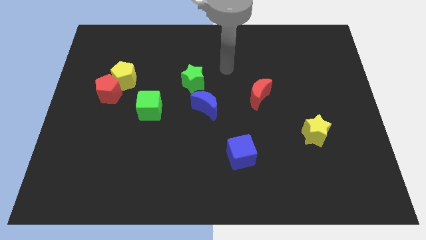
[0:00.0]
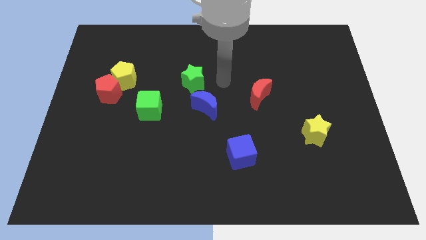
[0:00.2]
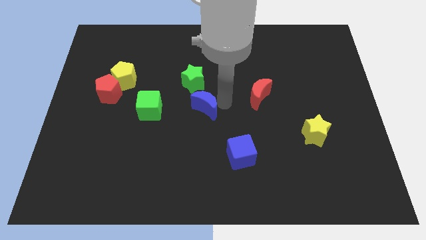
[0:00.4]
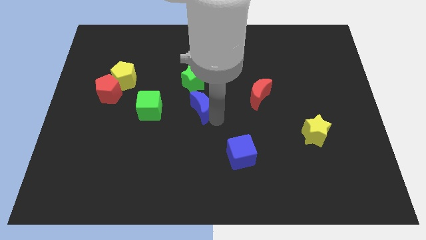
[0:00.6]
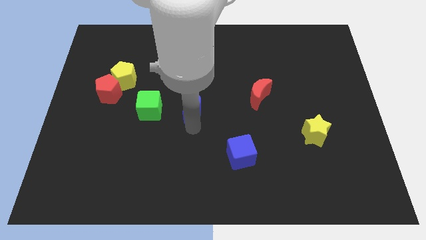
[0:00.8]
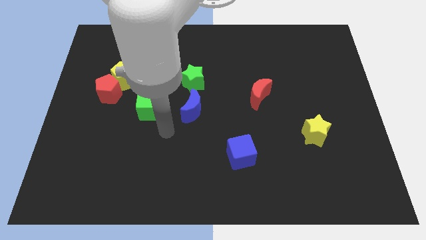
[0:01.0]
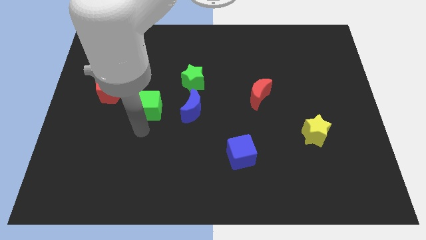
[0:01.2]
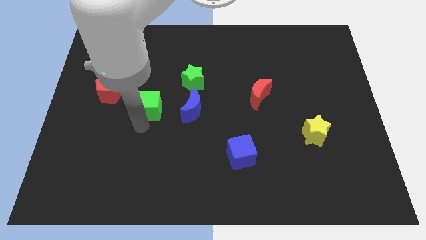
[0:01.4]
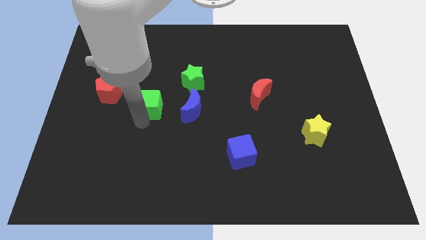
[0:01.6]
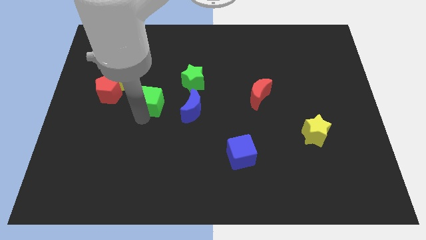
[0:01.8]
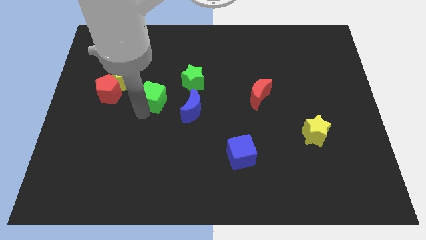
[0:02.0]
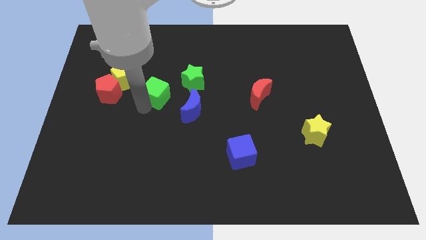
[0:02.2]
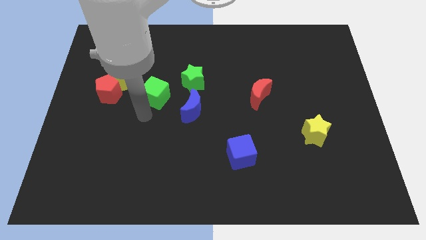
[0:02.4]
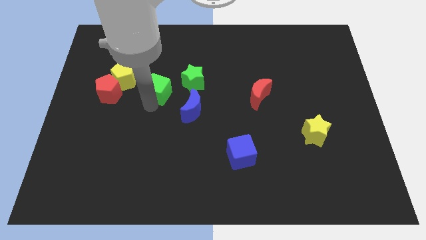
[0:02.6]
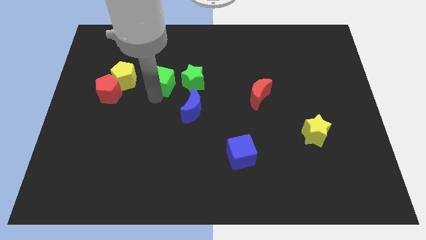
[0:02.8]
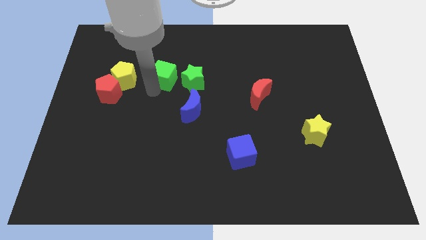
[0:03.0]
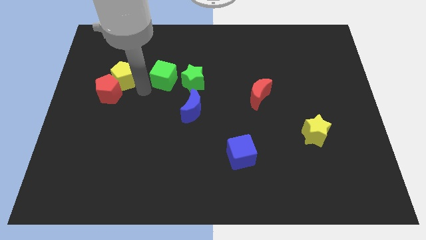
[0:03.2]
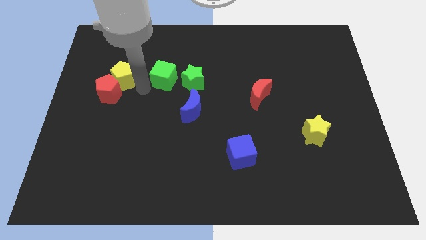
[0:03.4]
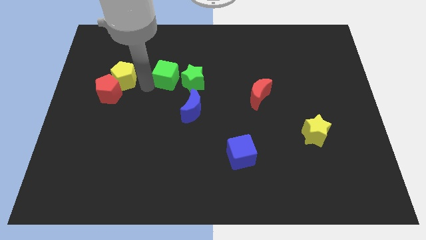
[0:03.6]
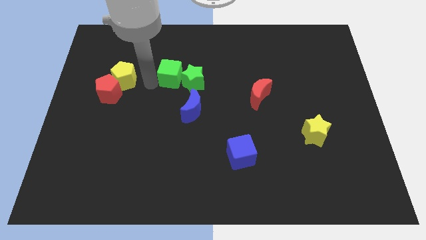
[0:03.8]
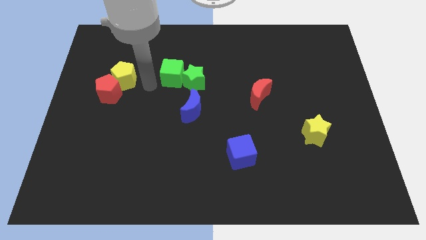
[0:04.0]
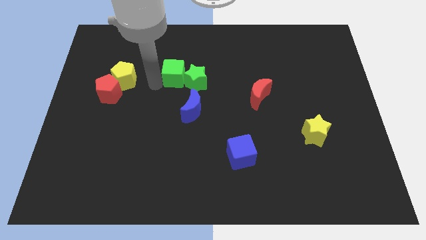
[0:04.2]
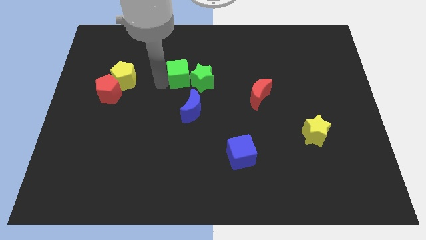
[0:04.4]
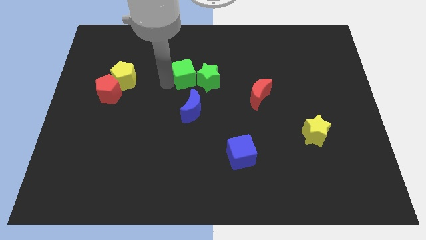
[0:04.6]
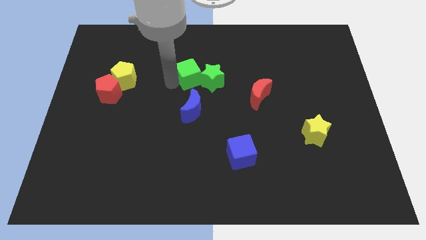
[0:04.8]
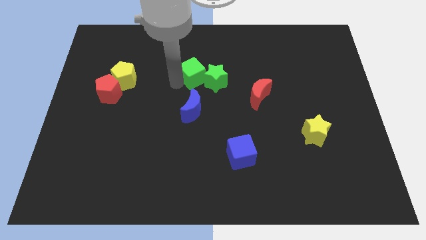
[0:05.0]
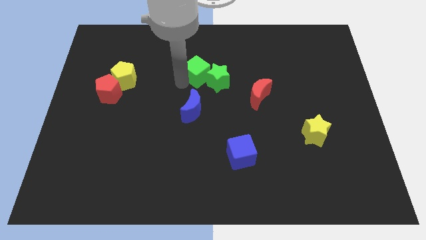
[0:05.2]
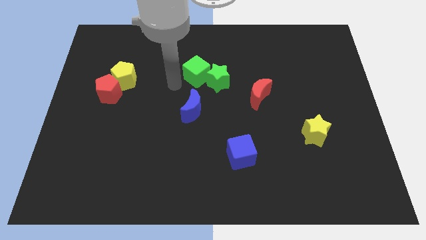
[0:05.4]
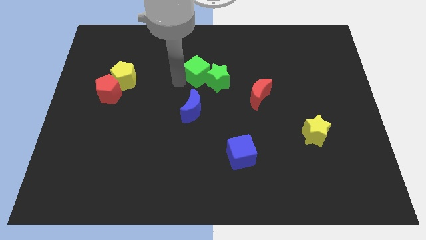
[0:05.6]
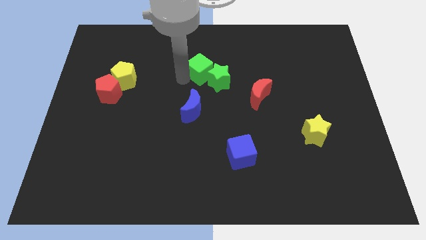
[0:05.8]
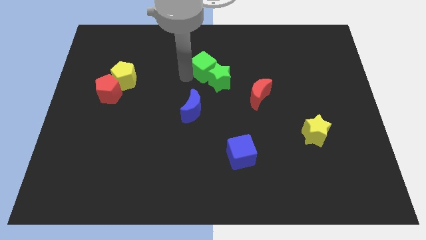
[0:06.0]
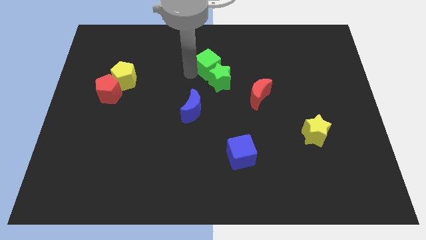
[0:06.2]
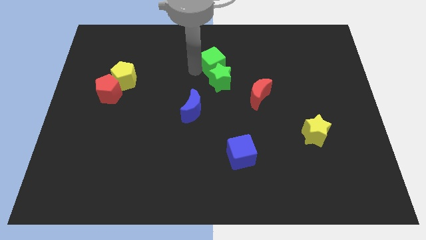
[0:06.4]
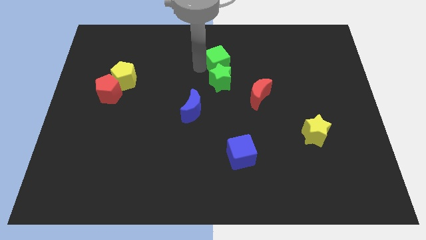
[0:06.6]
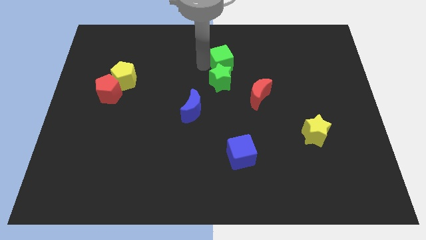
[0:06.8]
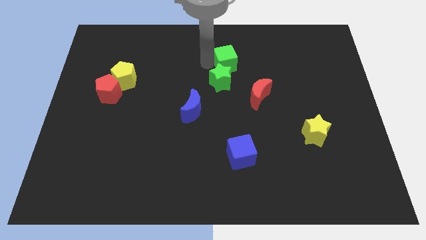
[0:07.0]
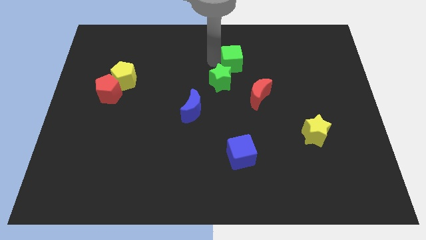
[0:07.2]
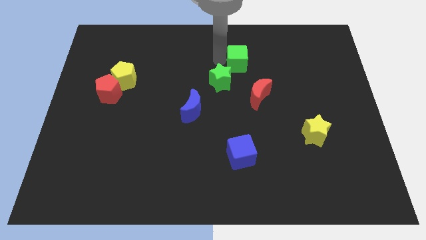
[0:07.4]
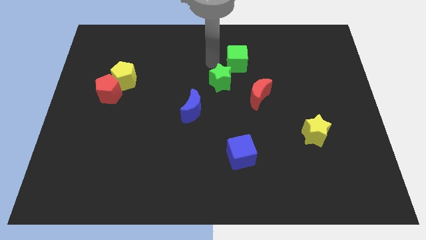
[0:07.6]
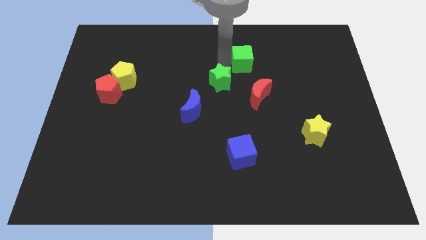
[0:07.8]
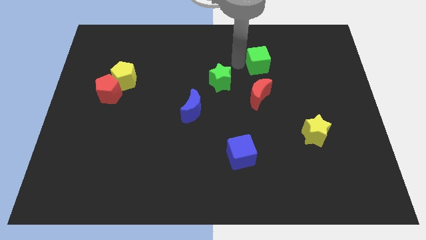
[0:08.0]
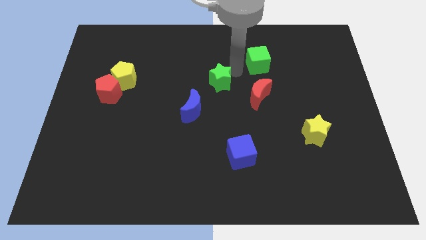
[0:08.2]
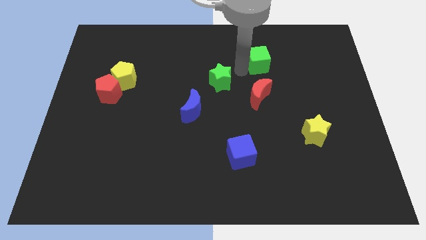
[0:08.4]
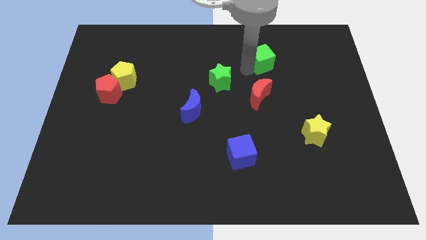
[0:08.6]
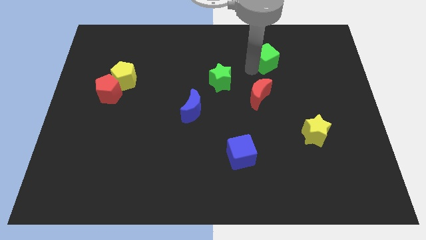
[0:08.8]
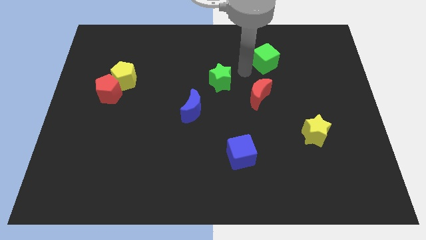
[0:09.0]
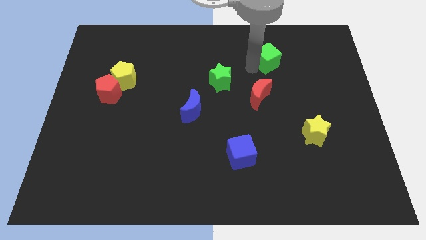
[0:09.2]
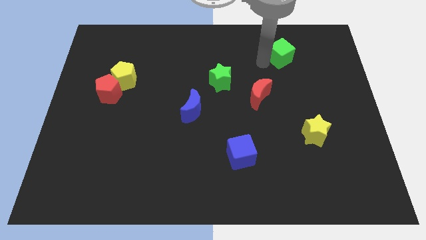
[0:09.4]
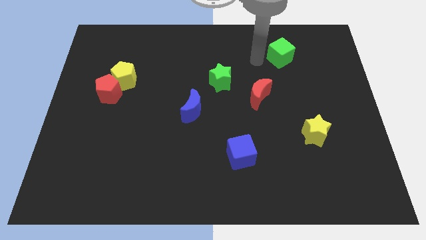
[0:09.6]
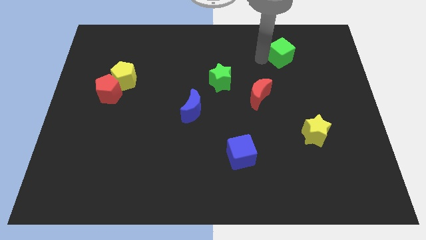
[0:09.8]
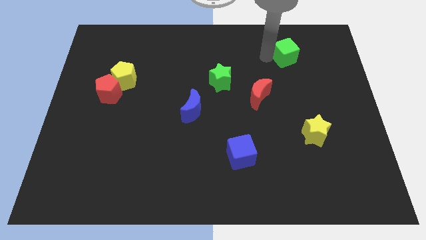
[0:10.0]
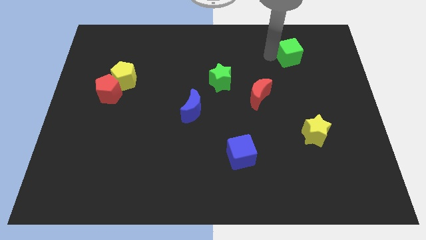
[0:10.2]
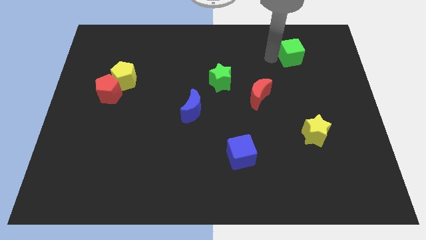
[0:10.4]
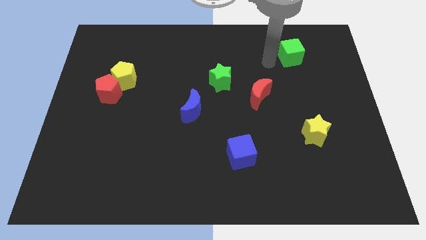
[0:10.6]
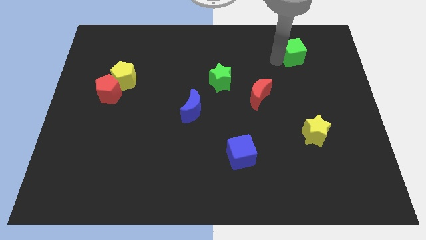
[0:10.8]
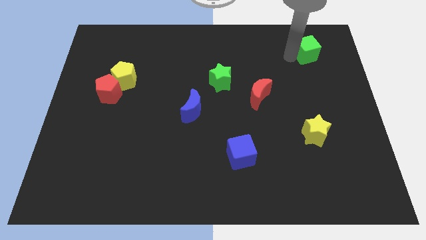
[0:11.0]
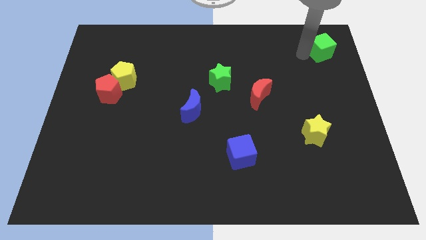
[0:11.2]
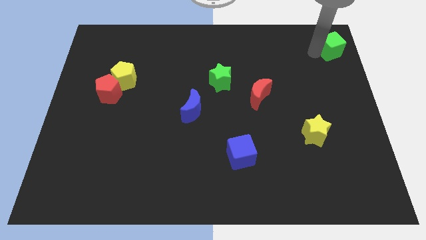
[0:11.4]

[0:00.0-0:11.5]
slide the green cube to the top right
